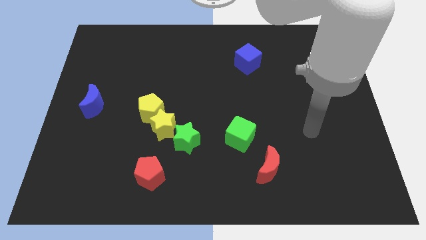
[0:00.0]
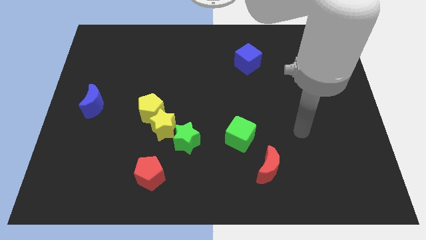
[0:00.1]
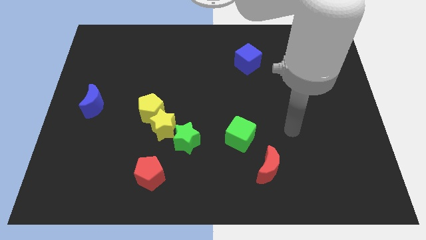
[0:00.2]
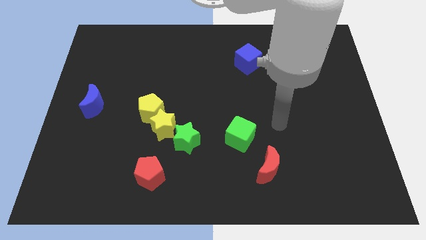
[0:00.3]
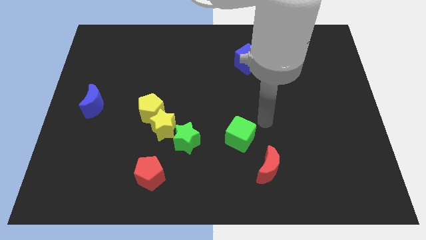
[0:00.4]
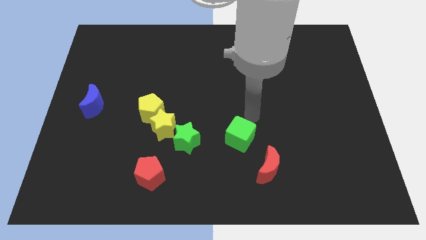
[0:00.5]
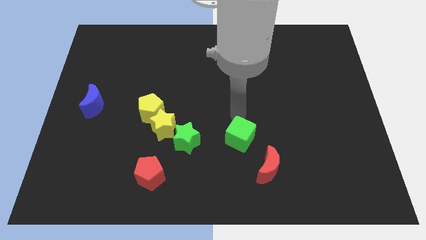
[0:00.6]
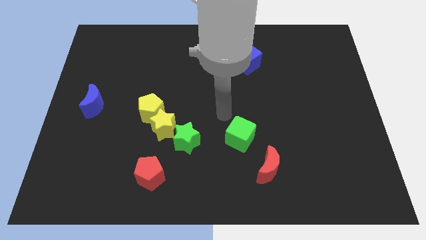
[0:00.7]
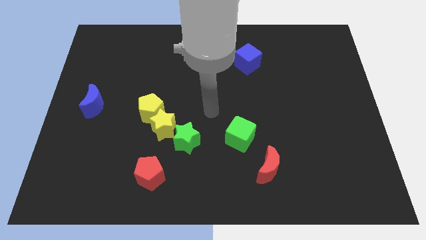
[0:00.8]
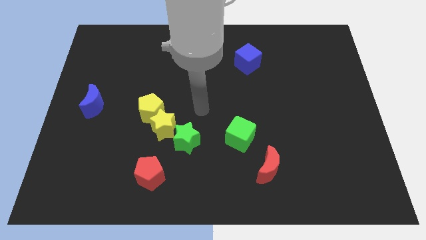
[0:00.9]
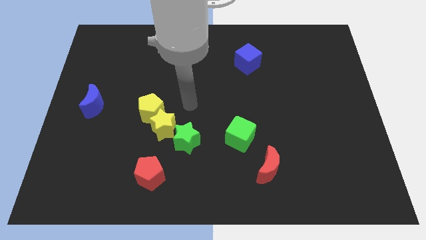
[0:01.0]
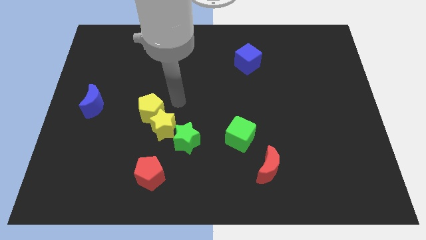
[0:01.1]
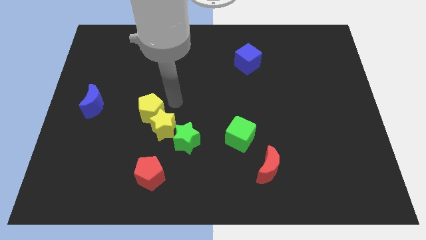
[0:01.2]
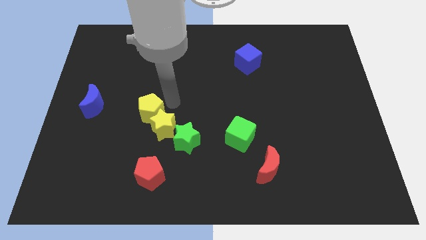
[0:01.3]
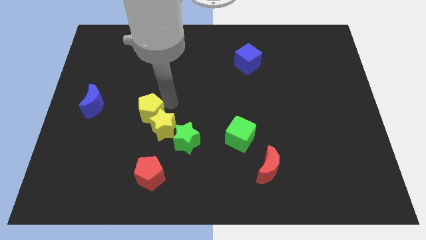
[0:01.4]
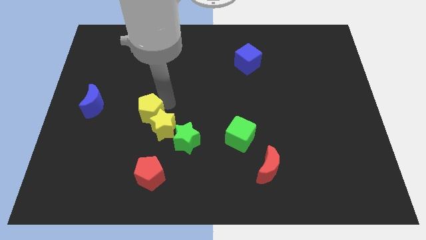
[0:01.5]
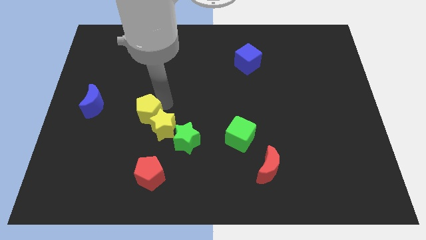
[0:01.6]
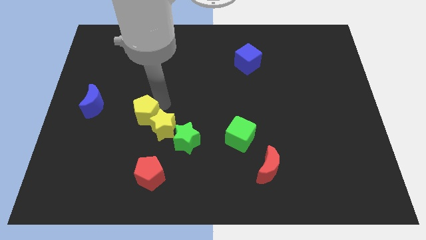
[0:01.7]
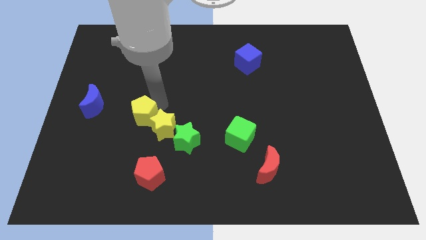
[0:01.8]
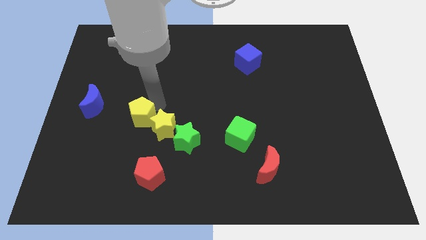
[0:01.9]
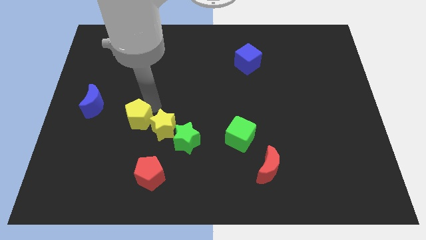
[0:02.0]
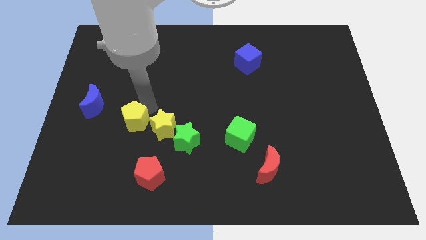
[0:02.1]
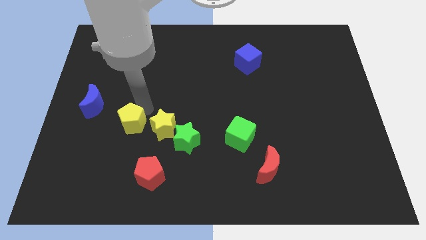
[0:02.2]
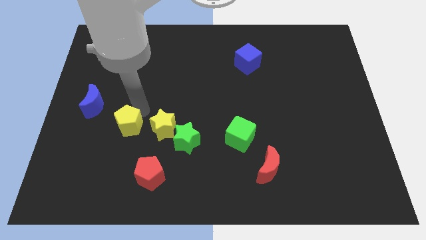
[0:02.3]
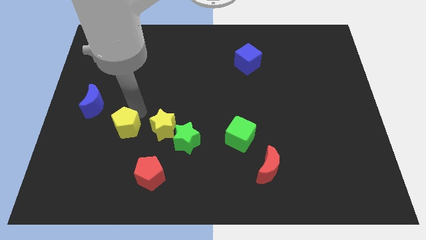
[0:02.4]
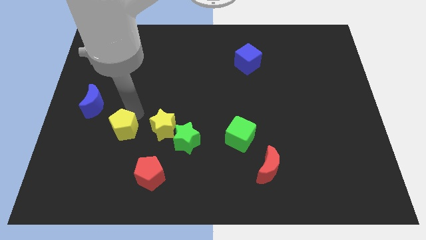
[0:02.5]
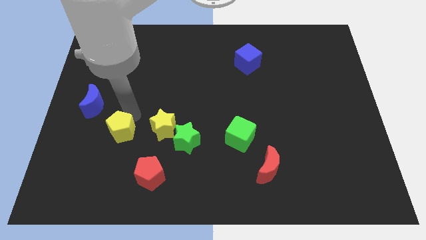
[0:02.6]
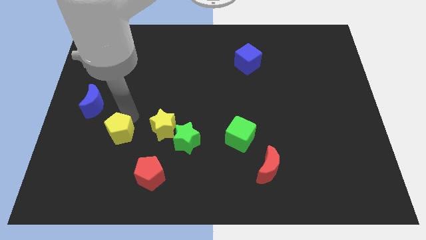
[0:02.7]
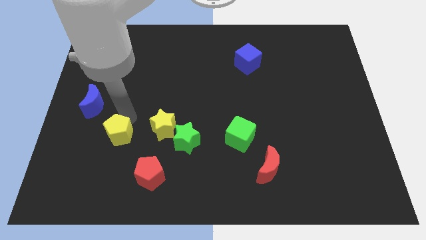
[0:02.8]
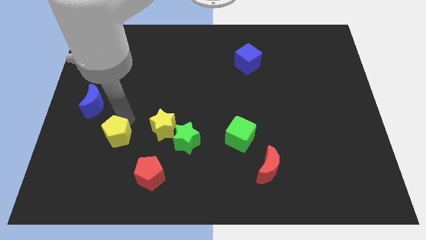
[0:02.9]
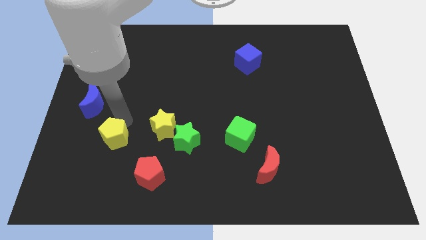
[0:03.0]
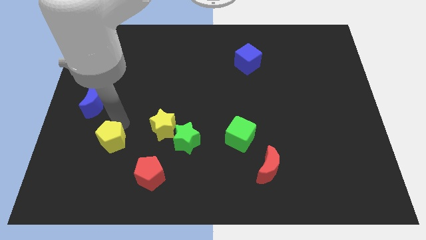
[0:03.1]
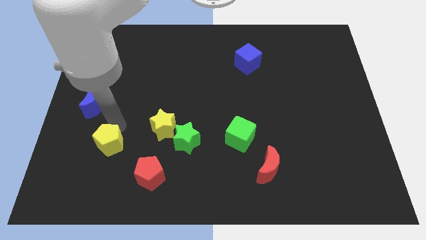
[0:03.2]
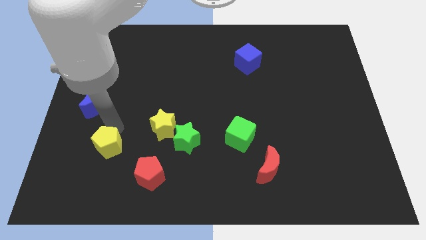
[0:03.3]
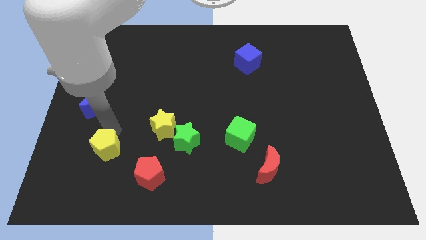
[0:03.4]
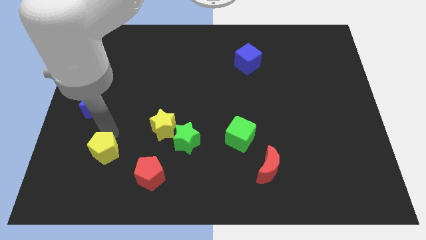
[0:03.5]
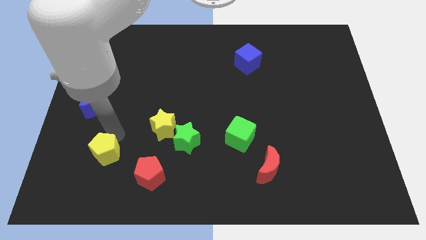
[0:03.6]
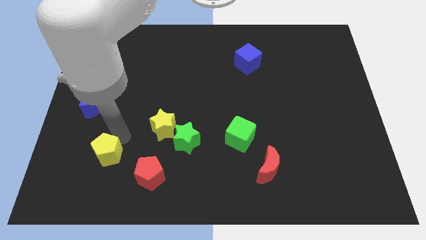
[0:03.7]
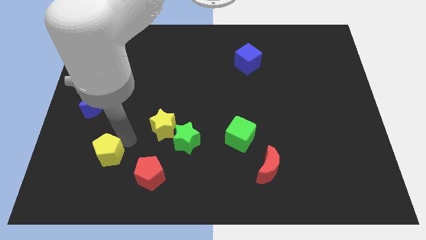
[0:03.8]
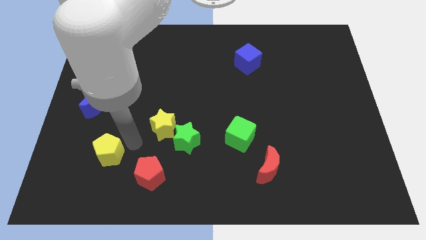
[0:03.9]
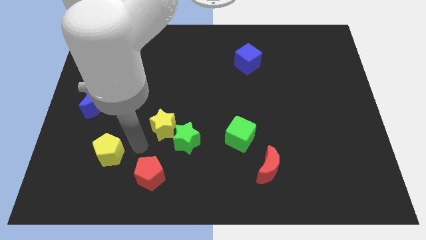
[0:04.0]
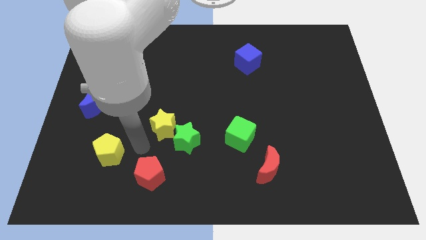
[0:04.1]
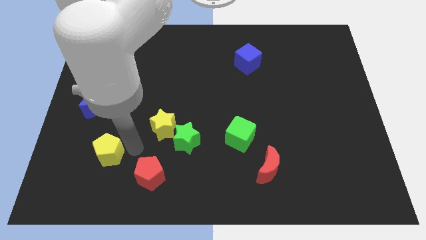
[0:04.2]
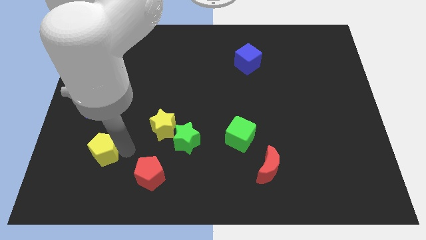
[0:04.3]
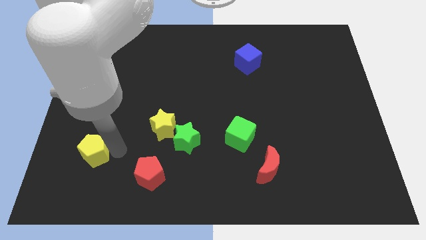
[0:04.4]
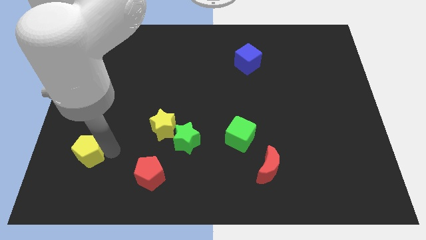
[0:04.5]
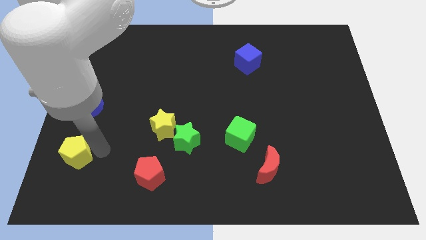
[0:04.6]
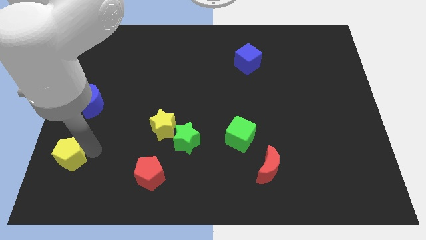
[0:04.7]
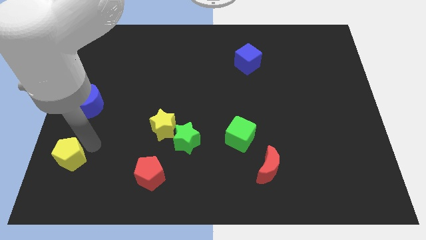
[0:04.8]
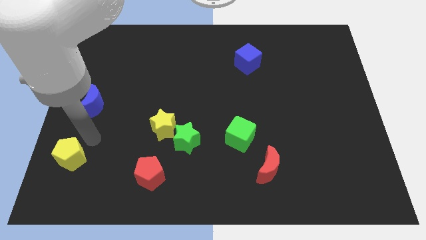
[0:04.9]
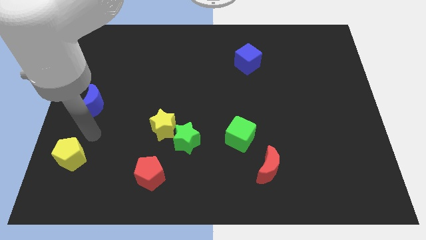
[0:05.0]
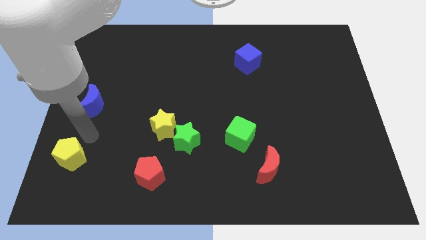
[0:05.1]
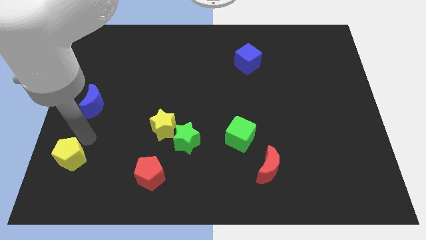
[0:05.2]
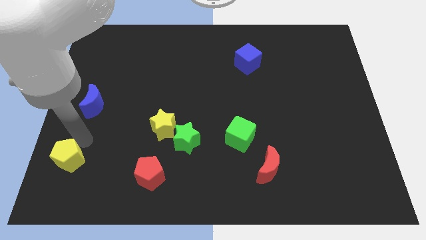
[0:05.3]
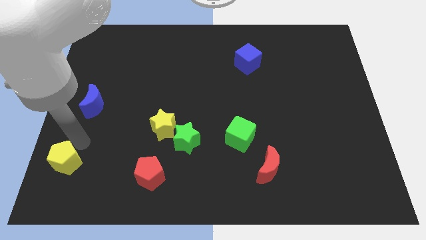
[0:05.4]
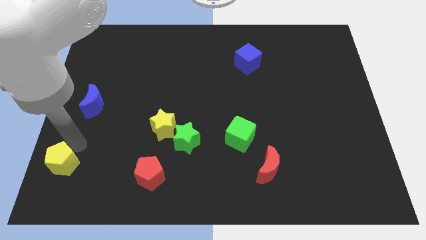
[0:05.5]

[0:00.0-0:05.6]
put the yellow pentagon to the bottom left of the board
